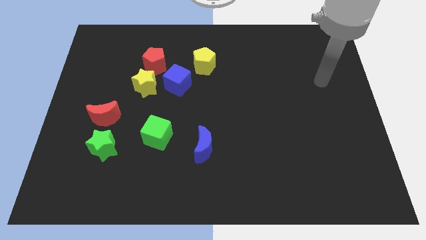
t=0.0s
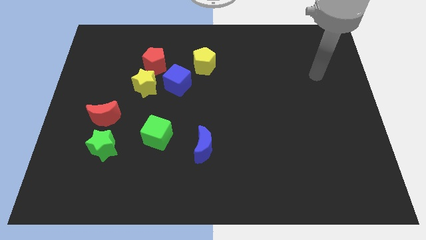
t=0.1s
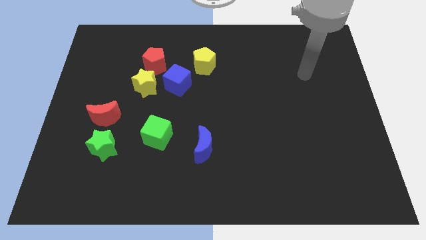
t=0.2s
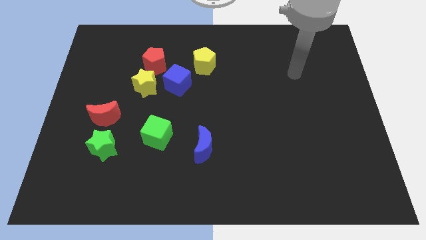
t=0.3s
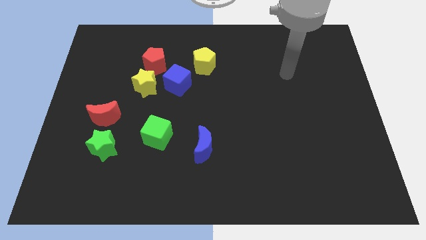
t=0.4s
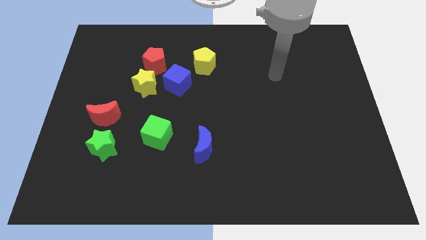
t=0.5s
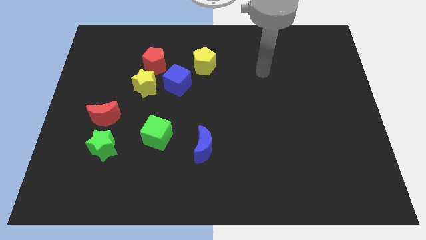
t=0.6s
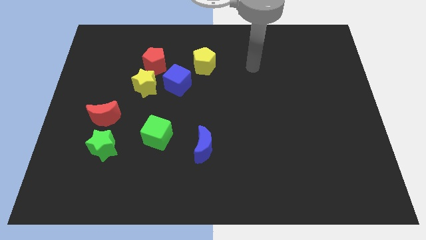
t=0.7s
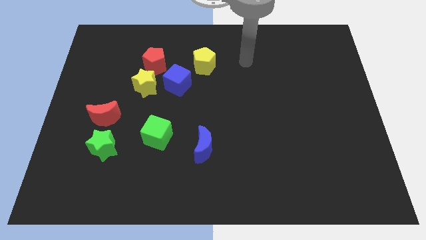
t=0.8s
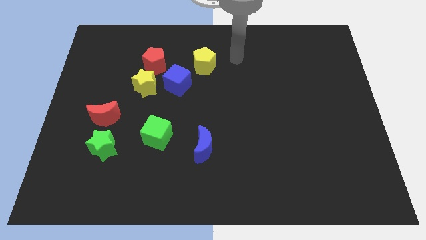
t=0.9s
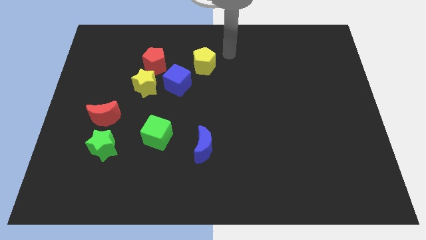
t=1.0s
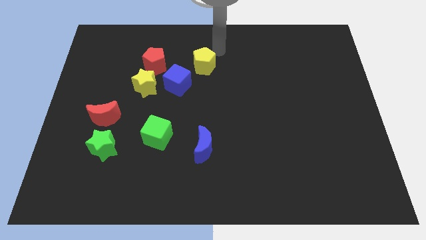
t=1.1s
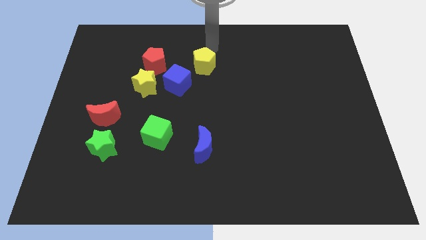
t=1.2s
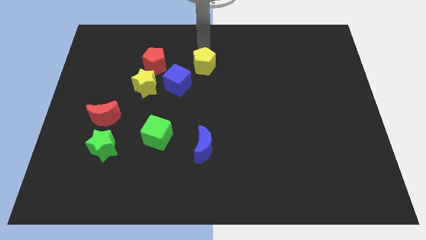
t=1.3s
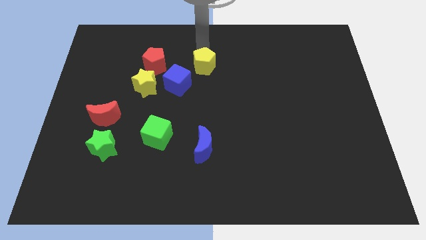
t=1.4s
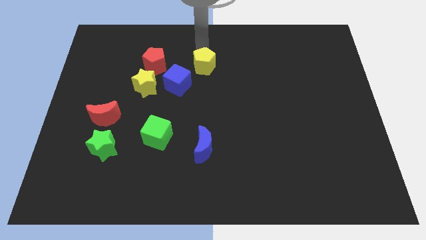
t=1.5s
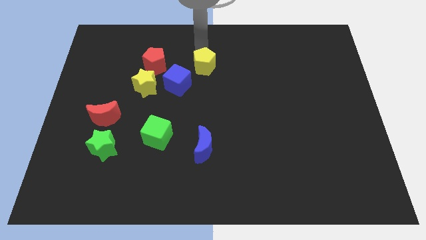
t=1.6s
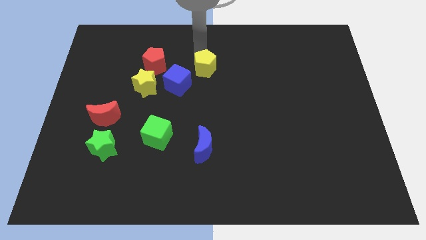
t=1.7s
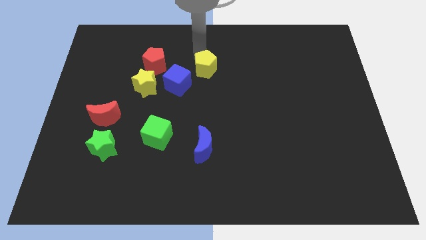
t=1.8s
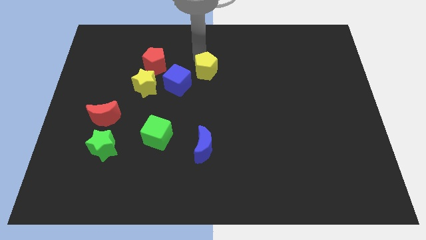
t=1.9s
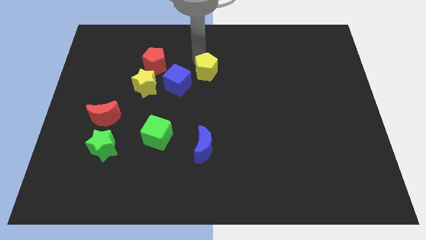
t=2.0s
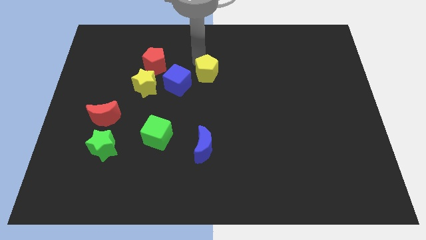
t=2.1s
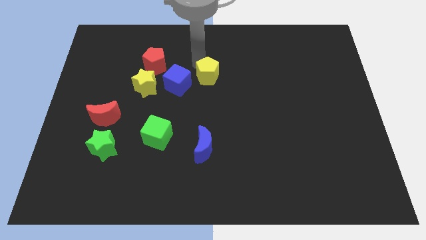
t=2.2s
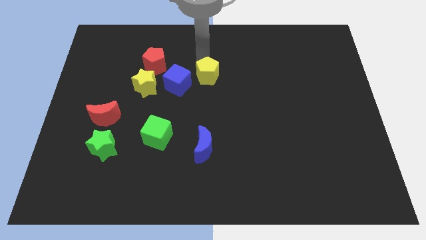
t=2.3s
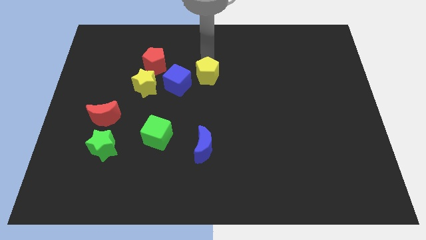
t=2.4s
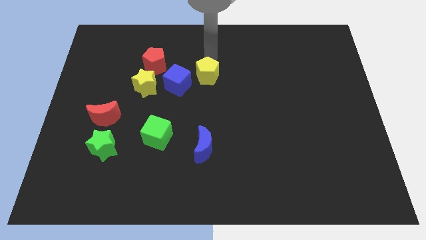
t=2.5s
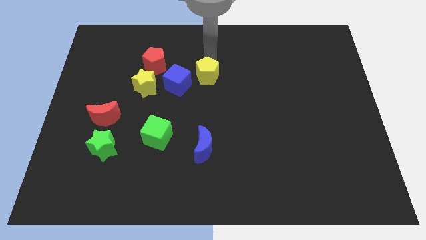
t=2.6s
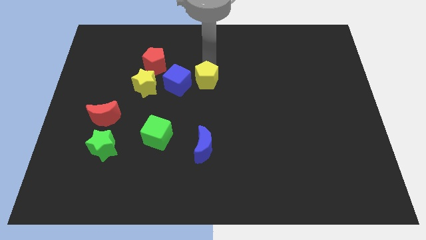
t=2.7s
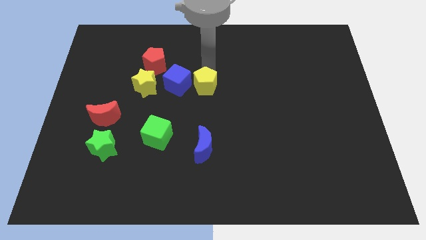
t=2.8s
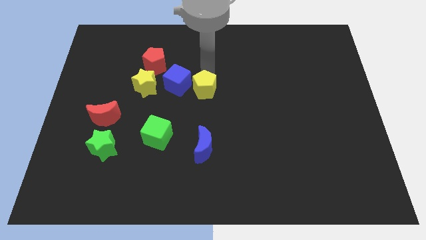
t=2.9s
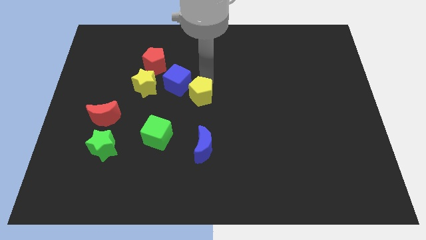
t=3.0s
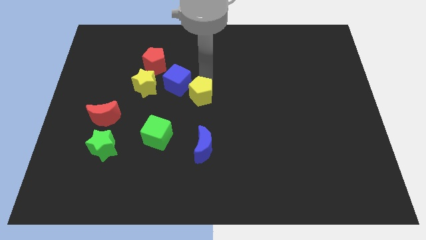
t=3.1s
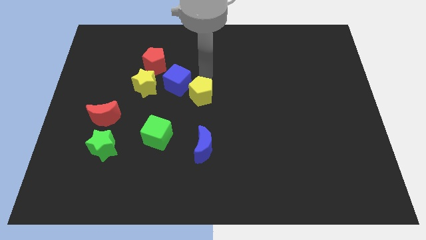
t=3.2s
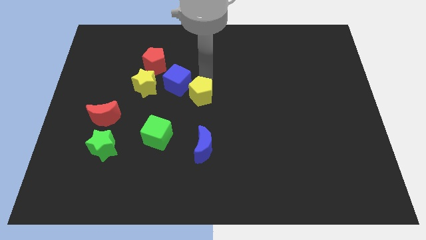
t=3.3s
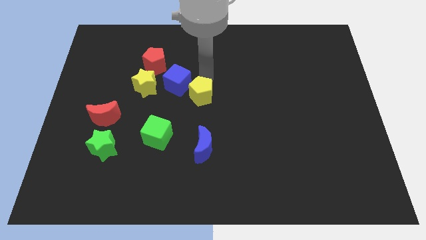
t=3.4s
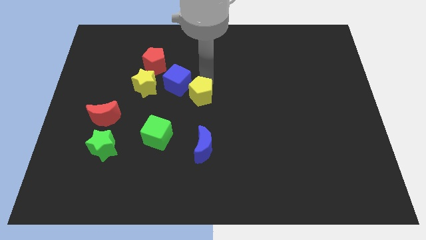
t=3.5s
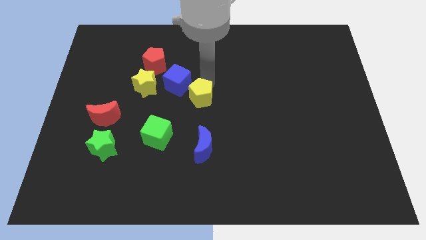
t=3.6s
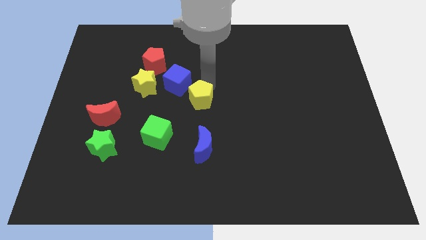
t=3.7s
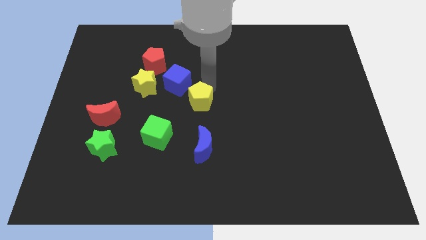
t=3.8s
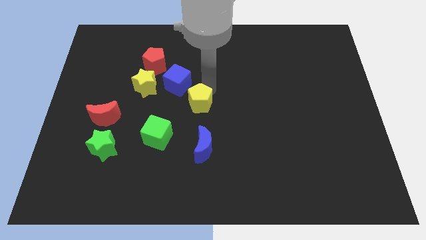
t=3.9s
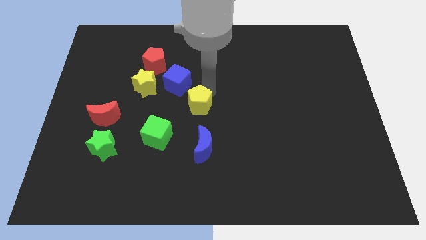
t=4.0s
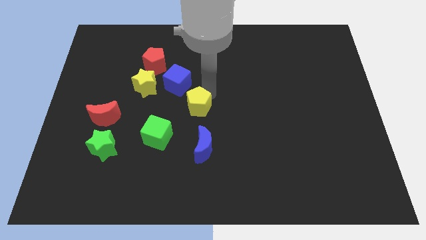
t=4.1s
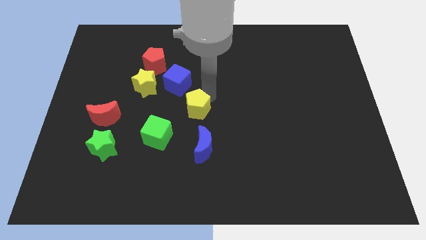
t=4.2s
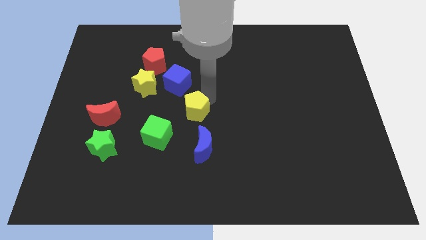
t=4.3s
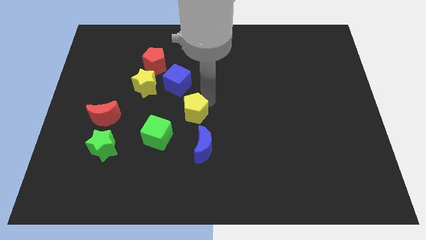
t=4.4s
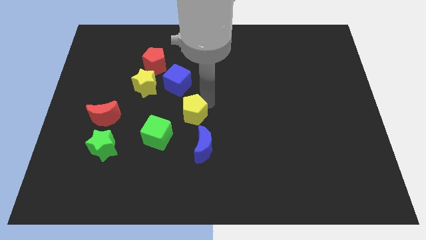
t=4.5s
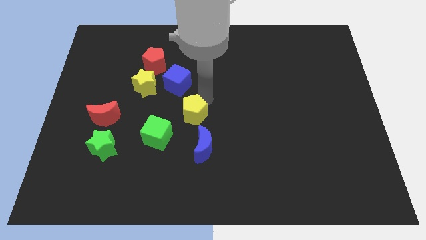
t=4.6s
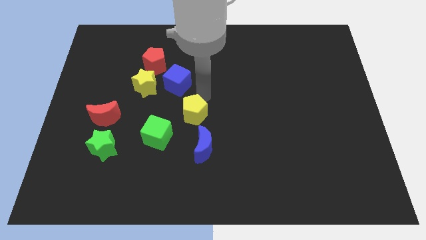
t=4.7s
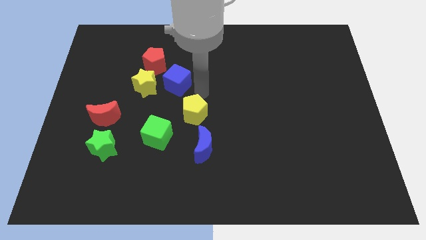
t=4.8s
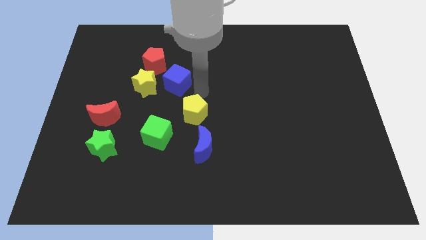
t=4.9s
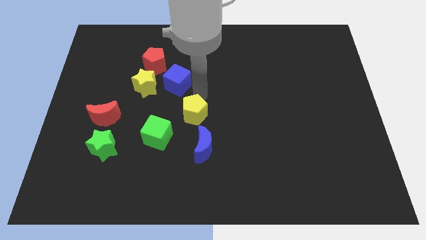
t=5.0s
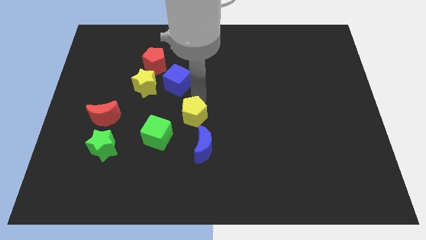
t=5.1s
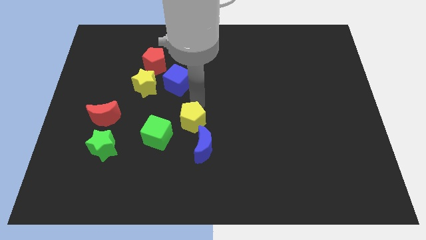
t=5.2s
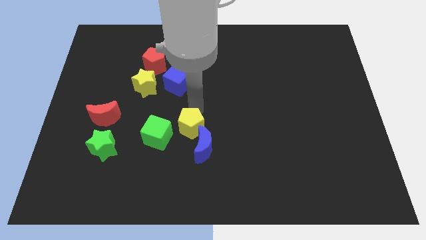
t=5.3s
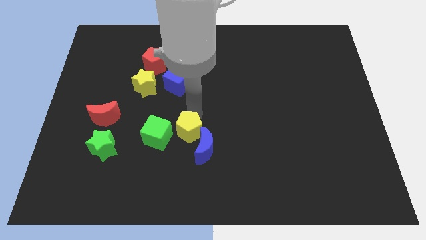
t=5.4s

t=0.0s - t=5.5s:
move the yellow pentagon down

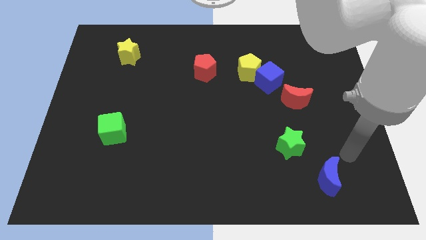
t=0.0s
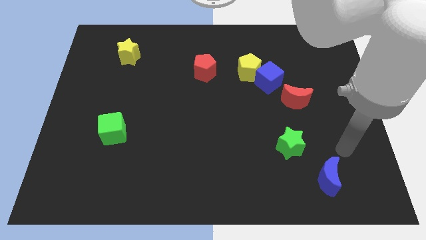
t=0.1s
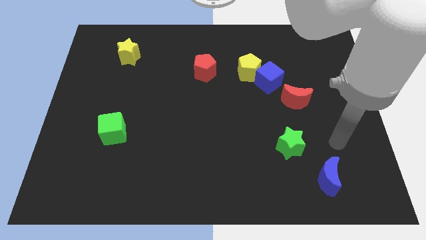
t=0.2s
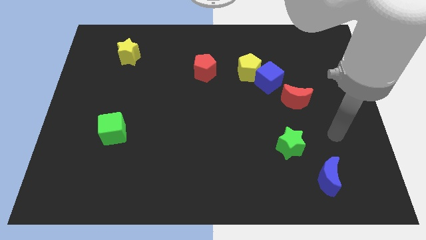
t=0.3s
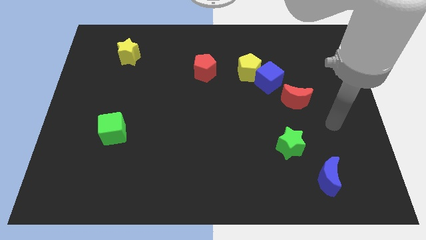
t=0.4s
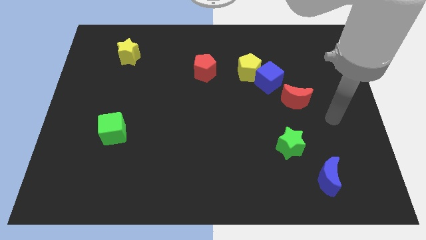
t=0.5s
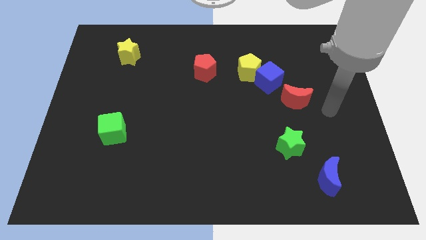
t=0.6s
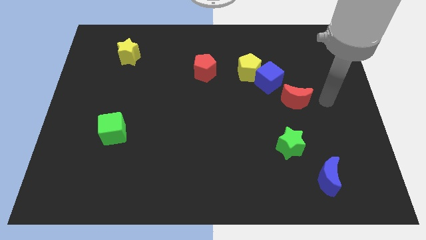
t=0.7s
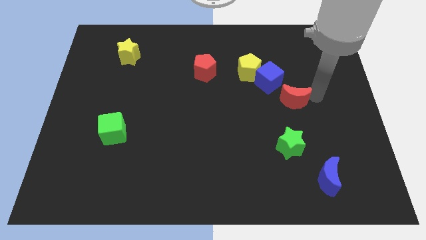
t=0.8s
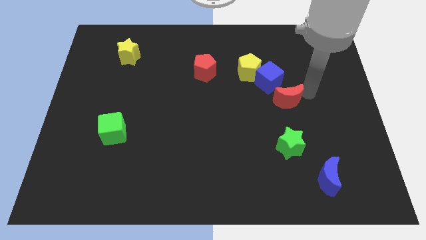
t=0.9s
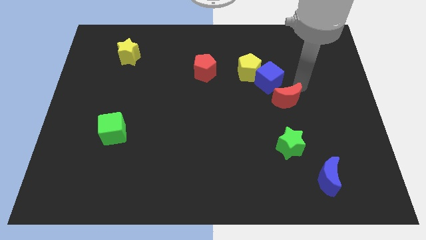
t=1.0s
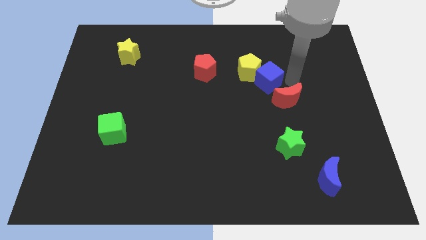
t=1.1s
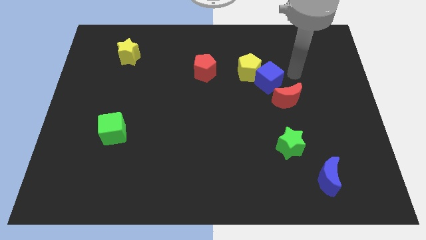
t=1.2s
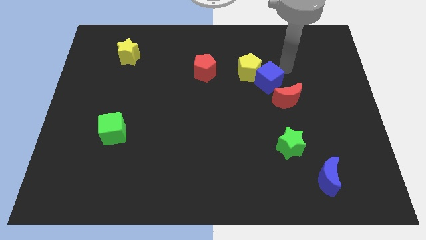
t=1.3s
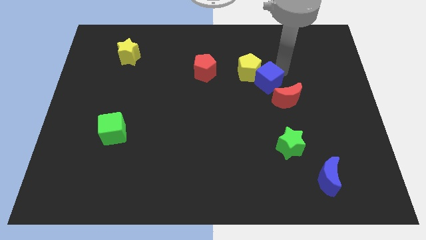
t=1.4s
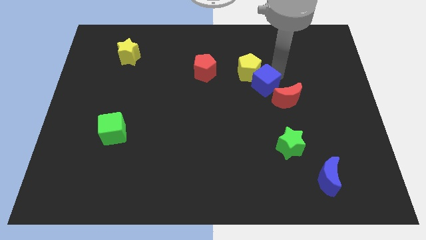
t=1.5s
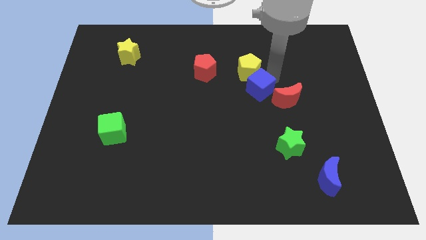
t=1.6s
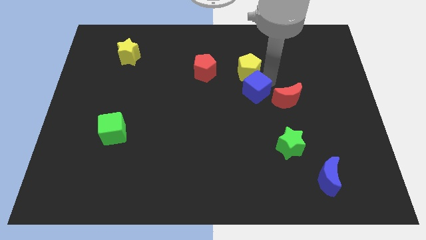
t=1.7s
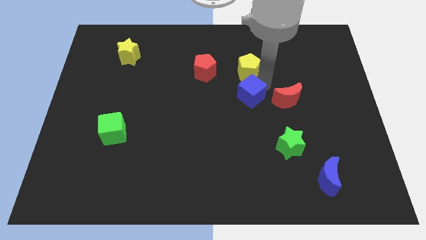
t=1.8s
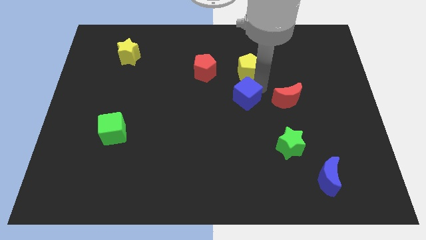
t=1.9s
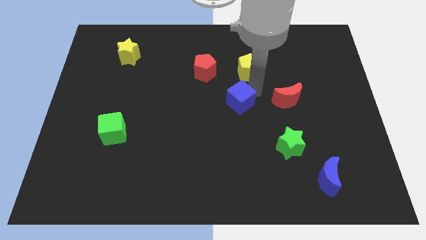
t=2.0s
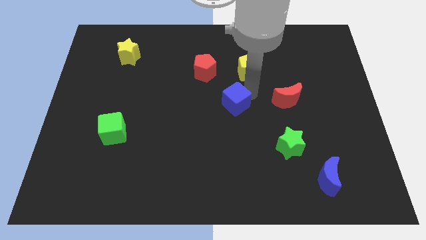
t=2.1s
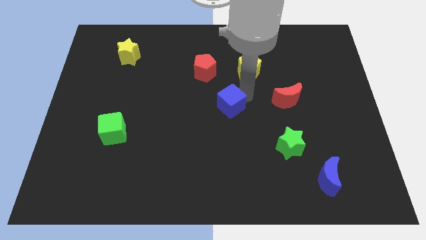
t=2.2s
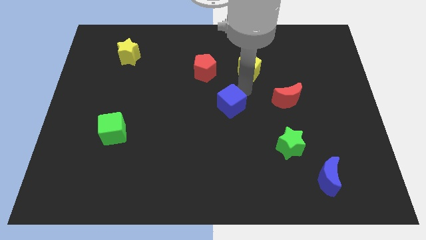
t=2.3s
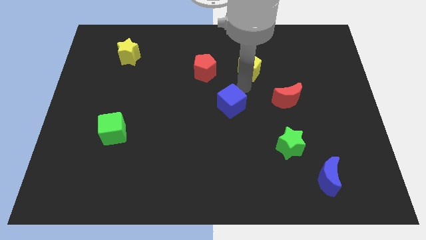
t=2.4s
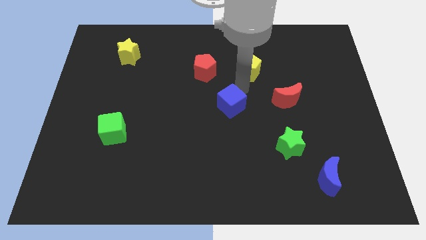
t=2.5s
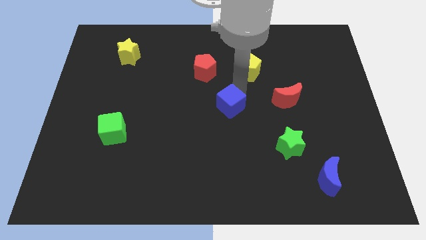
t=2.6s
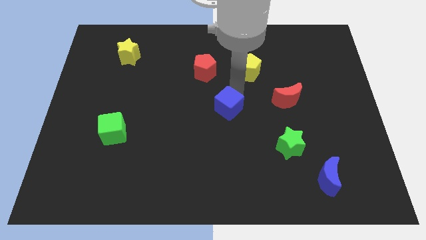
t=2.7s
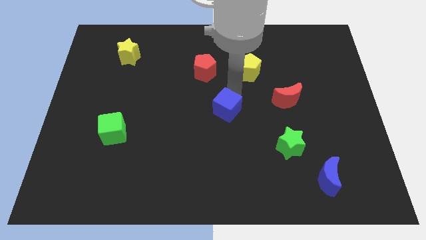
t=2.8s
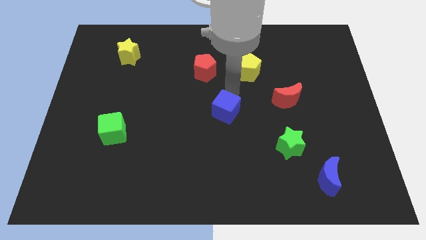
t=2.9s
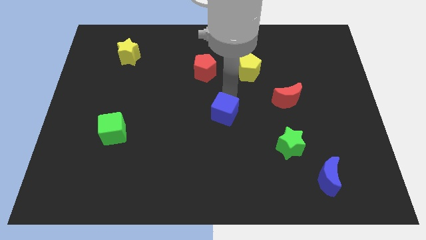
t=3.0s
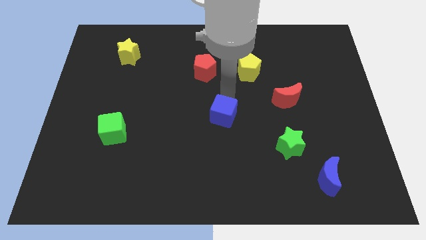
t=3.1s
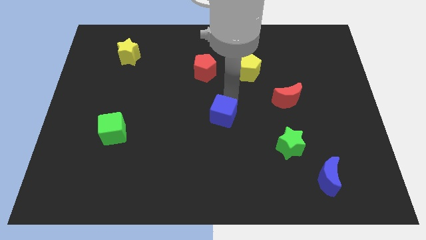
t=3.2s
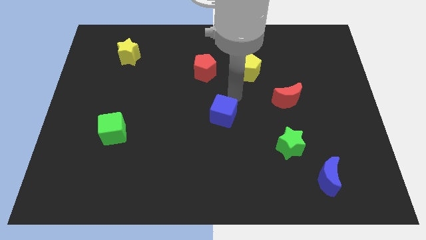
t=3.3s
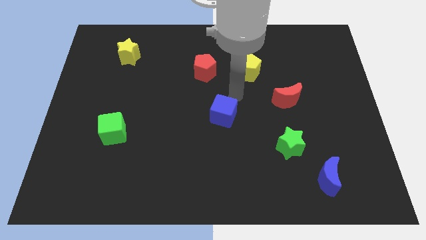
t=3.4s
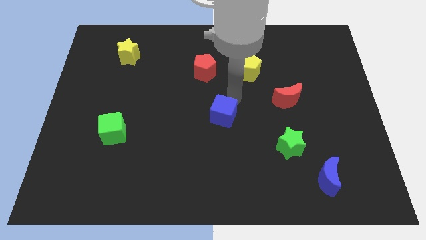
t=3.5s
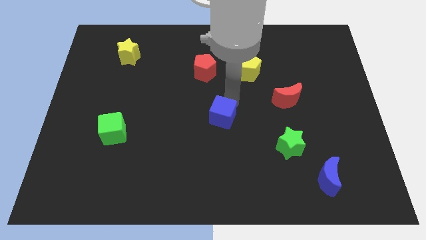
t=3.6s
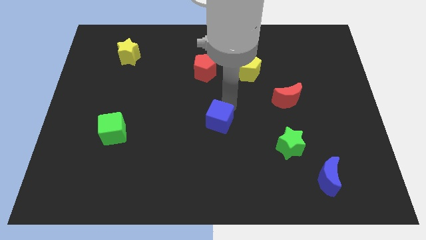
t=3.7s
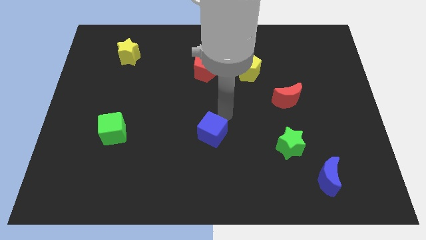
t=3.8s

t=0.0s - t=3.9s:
slide the blue cube down and to the left diagonally
